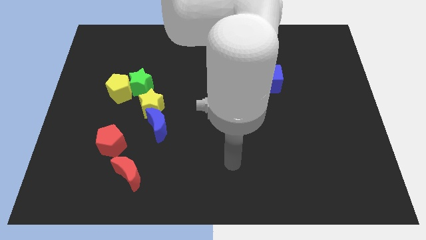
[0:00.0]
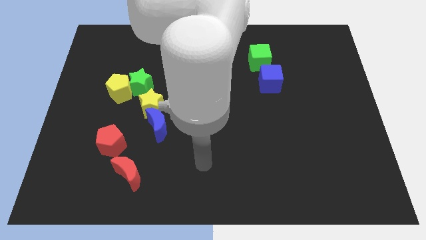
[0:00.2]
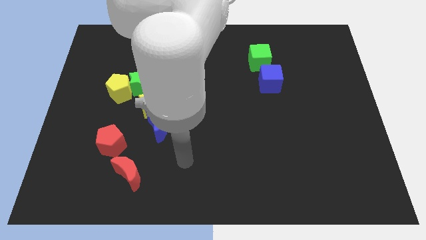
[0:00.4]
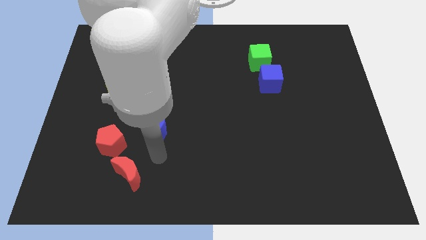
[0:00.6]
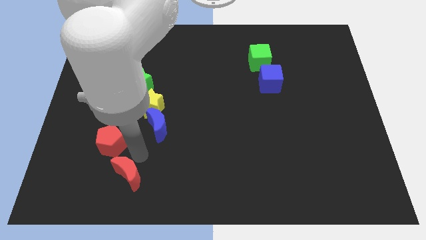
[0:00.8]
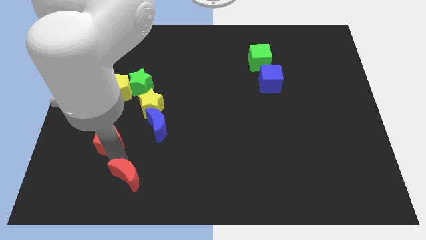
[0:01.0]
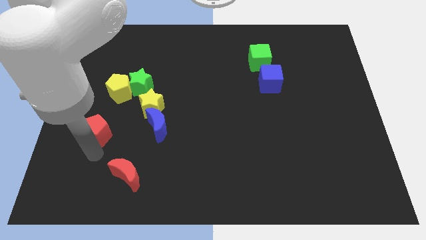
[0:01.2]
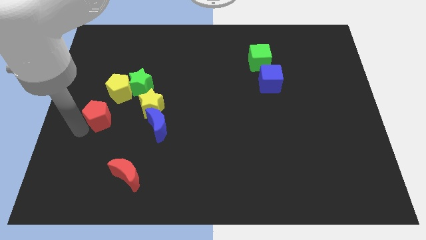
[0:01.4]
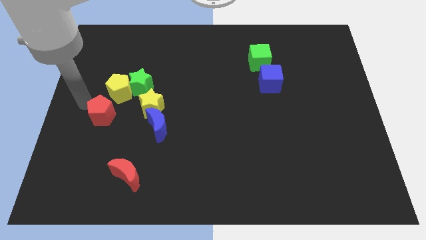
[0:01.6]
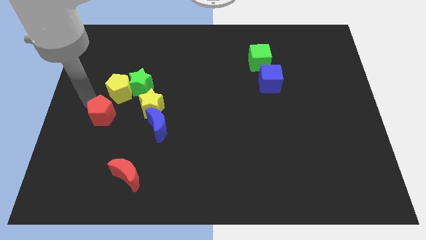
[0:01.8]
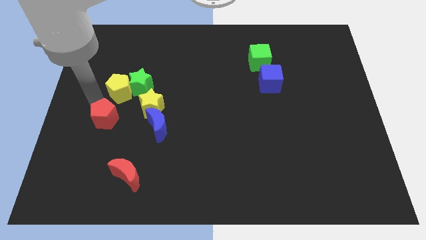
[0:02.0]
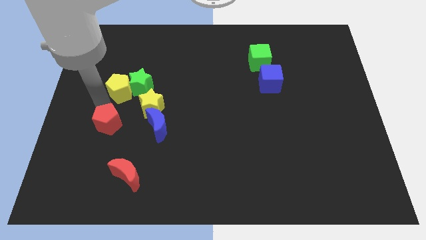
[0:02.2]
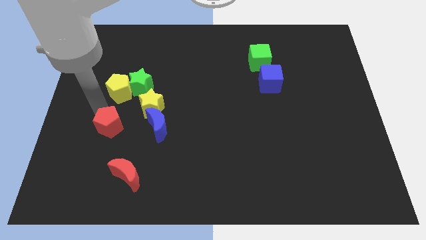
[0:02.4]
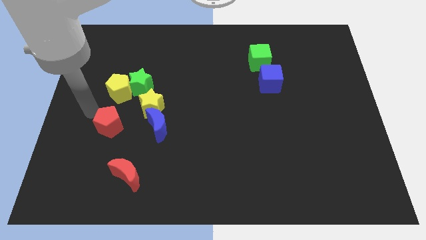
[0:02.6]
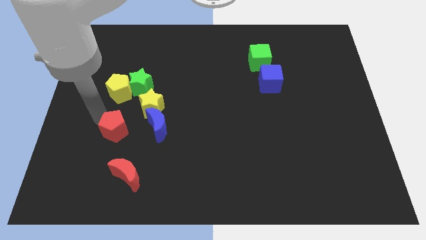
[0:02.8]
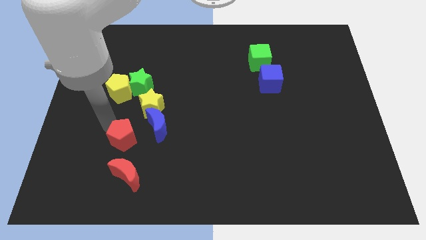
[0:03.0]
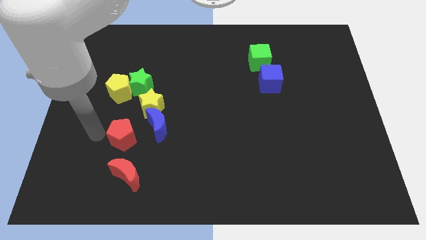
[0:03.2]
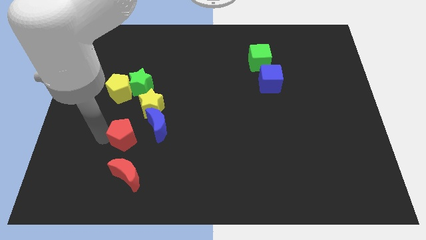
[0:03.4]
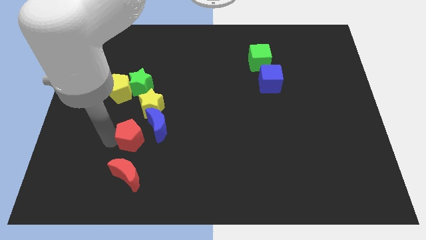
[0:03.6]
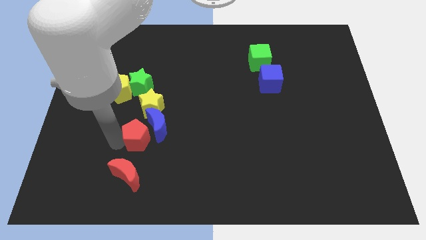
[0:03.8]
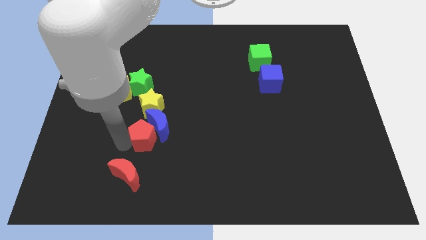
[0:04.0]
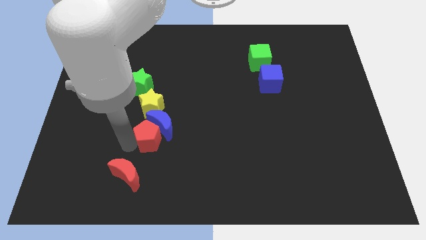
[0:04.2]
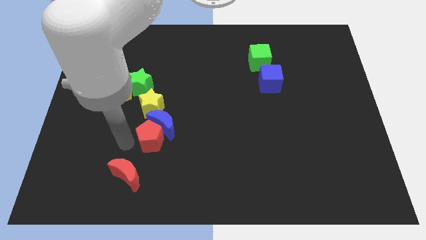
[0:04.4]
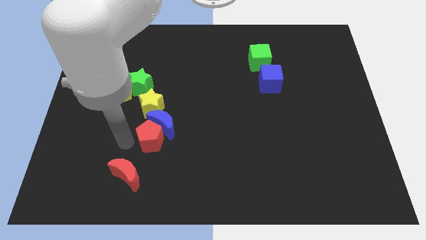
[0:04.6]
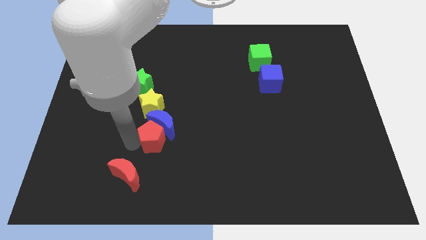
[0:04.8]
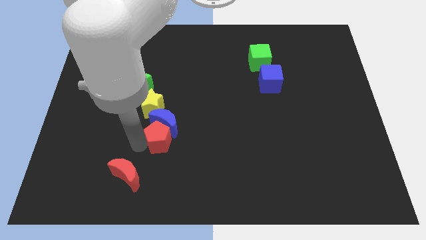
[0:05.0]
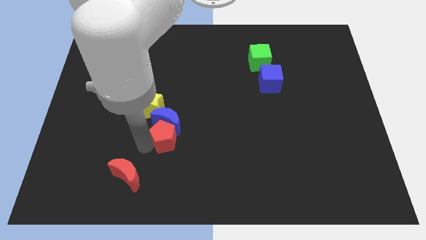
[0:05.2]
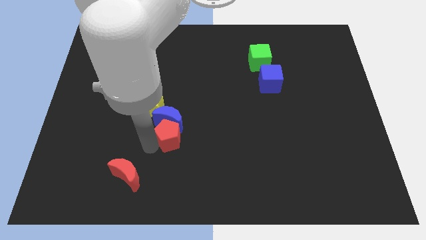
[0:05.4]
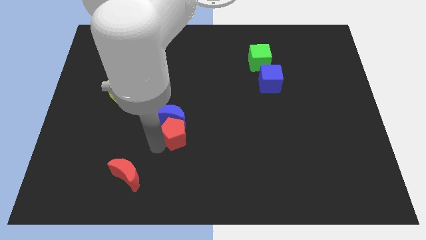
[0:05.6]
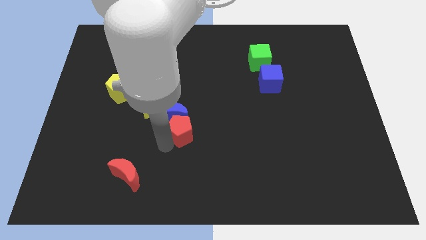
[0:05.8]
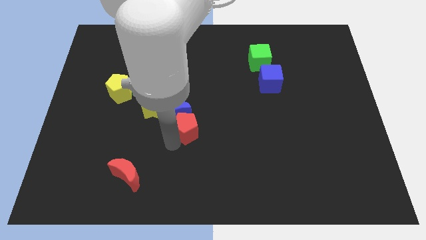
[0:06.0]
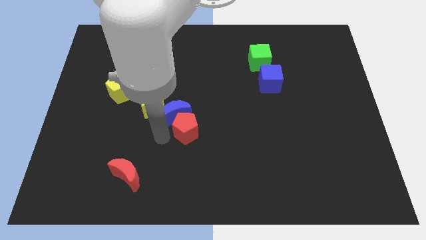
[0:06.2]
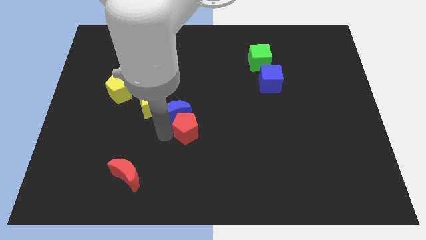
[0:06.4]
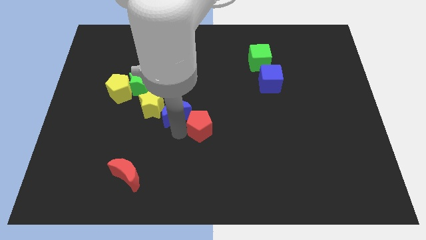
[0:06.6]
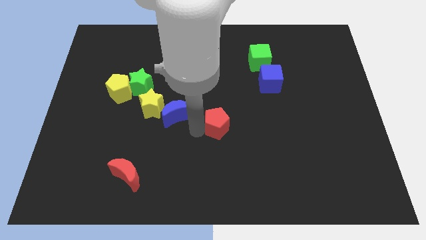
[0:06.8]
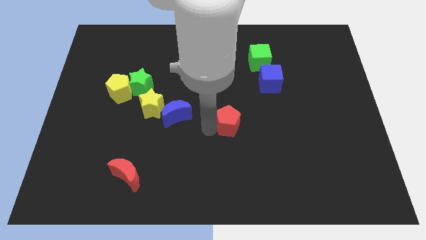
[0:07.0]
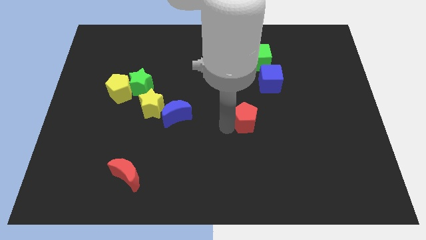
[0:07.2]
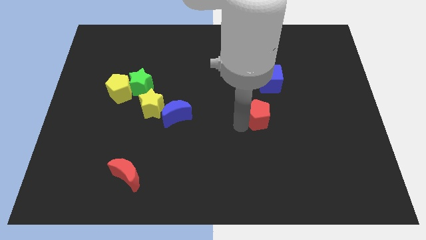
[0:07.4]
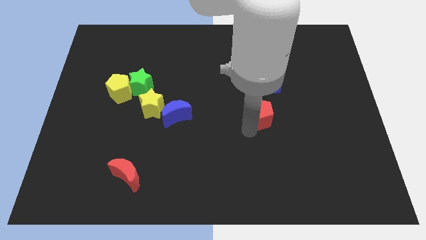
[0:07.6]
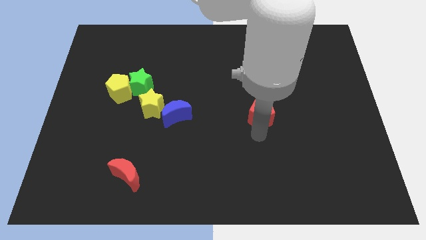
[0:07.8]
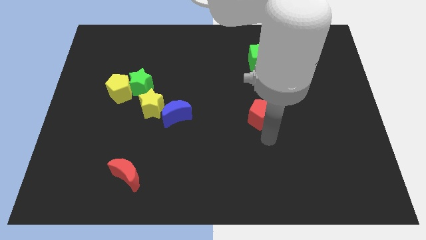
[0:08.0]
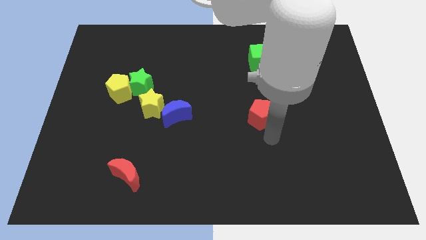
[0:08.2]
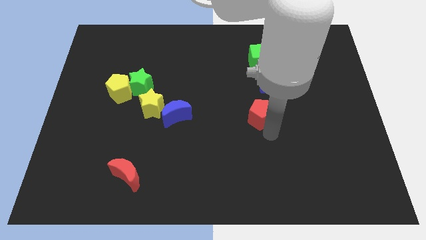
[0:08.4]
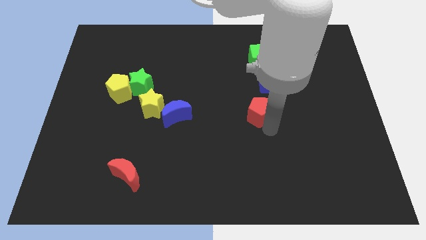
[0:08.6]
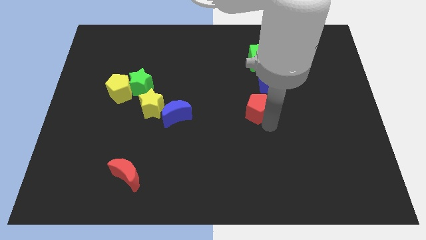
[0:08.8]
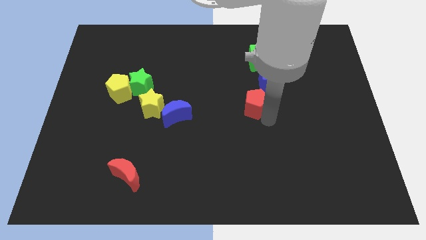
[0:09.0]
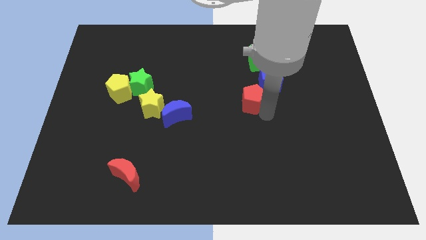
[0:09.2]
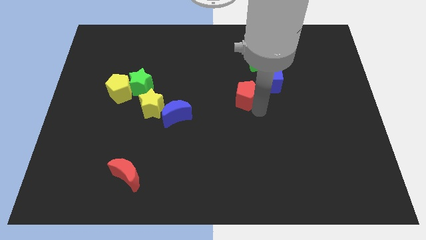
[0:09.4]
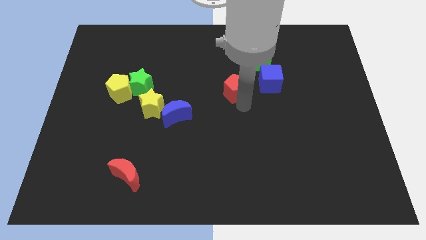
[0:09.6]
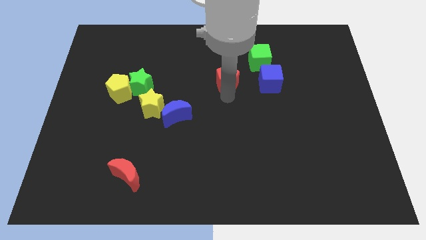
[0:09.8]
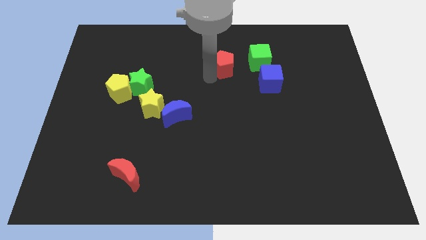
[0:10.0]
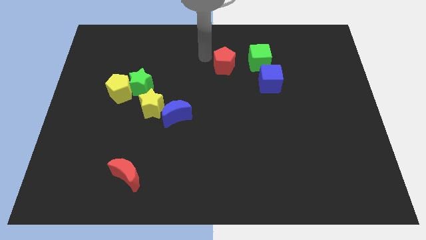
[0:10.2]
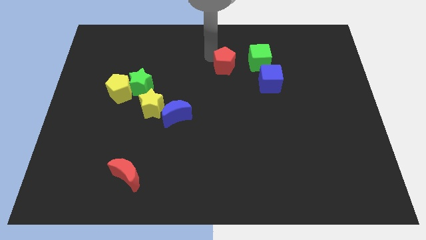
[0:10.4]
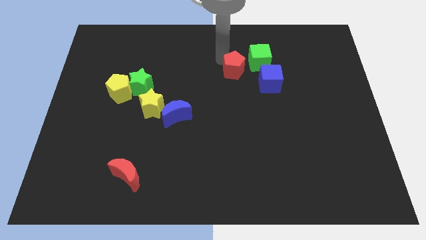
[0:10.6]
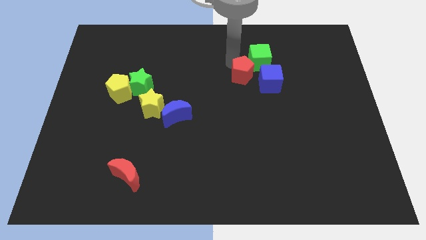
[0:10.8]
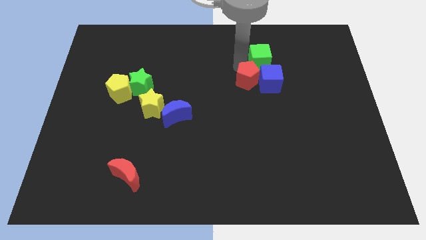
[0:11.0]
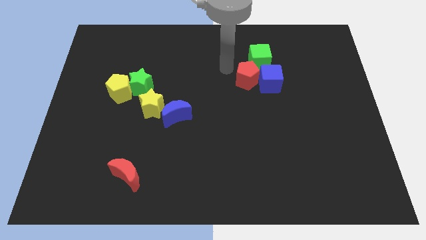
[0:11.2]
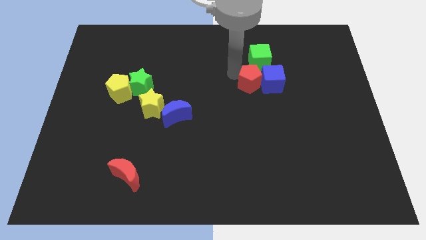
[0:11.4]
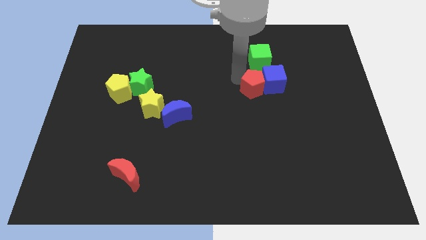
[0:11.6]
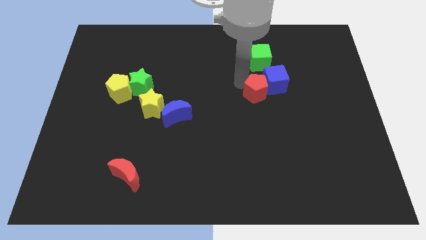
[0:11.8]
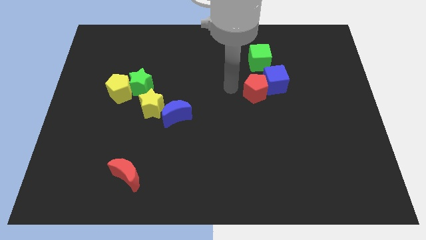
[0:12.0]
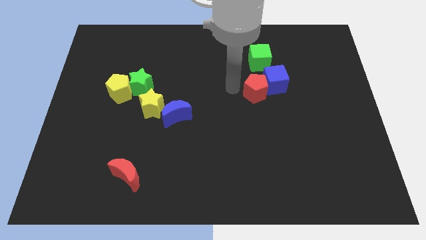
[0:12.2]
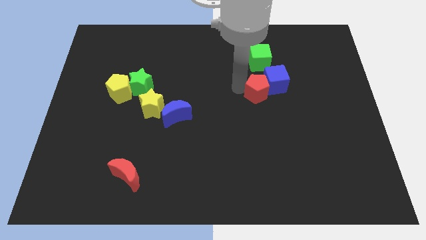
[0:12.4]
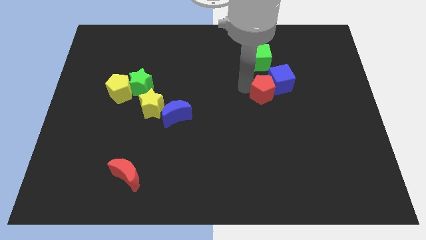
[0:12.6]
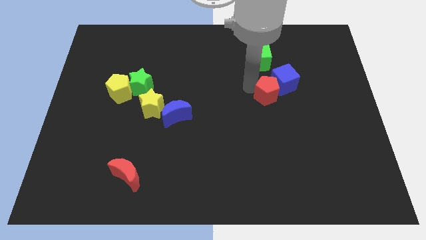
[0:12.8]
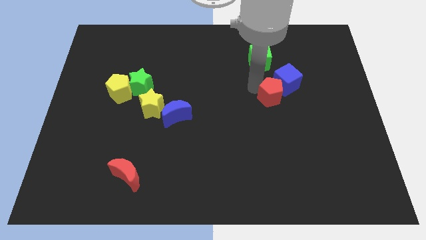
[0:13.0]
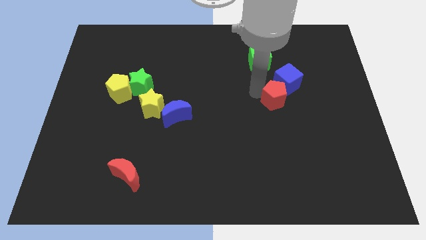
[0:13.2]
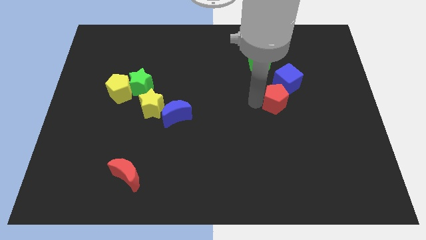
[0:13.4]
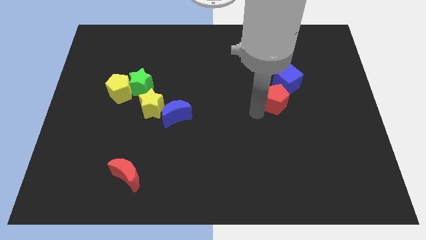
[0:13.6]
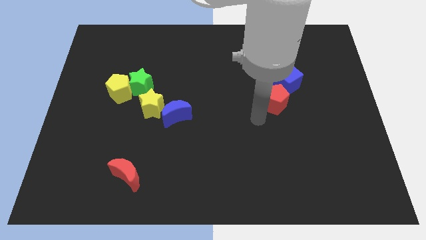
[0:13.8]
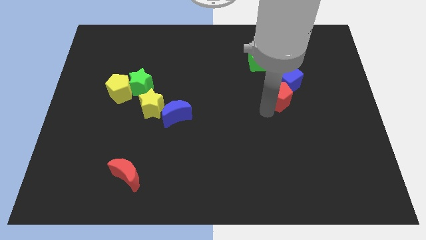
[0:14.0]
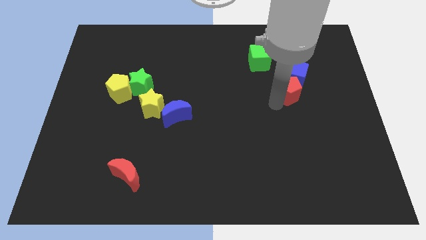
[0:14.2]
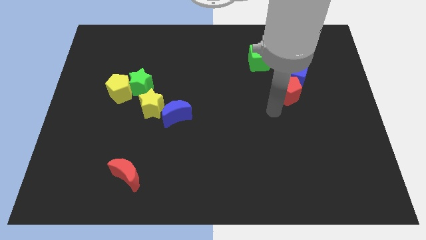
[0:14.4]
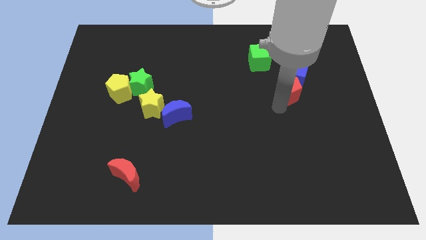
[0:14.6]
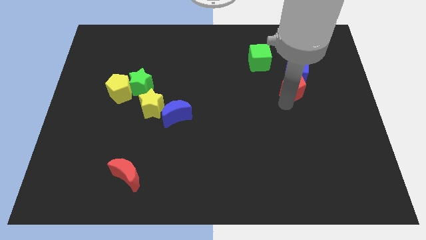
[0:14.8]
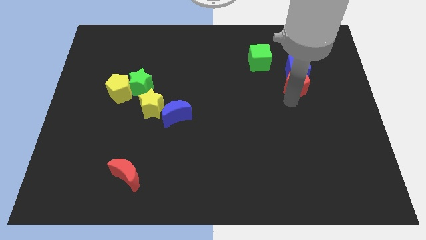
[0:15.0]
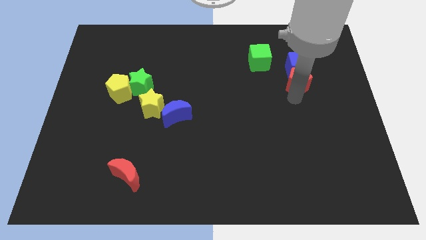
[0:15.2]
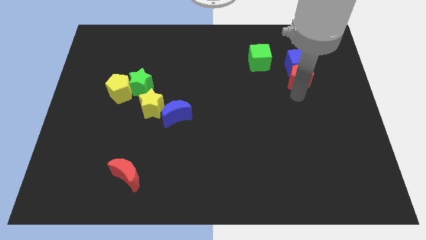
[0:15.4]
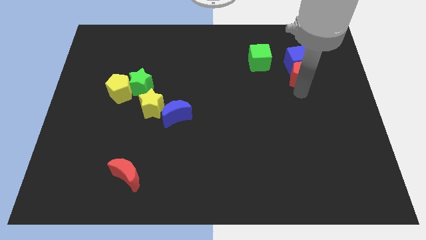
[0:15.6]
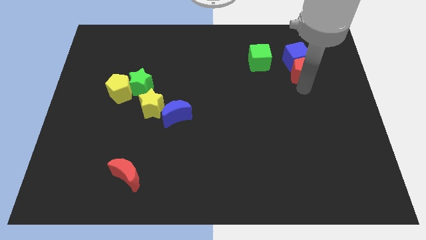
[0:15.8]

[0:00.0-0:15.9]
put the red pentagon right of the green cube
